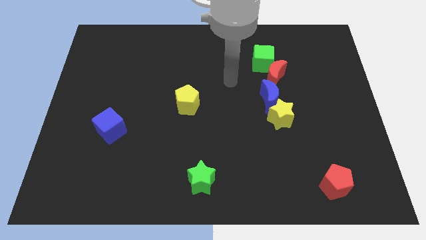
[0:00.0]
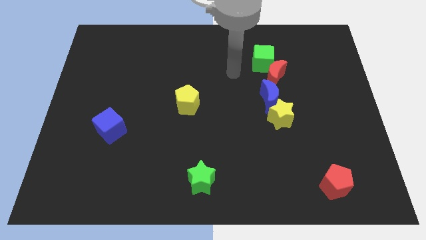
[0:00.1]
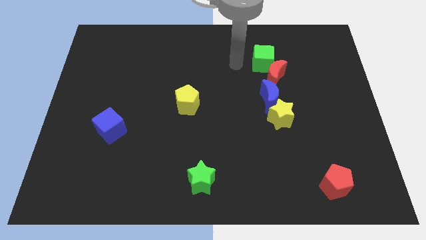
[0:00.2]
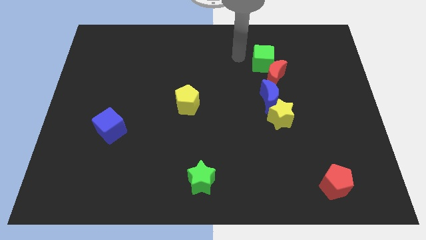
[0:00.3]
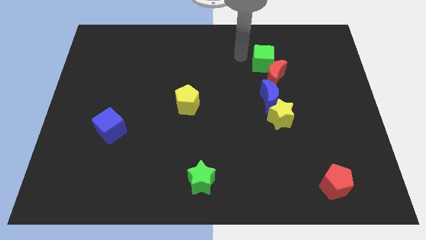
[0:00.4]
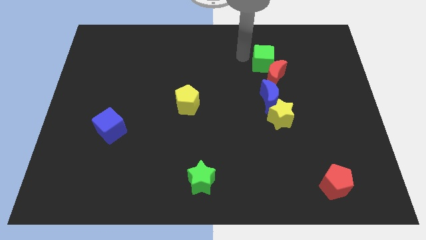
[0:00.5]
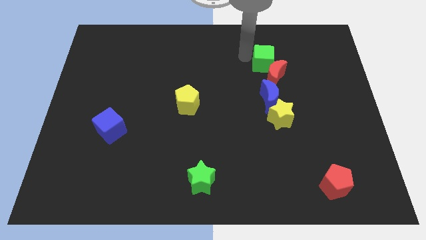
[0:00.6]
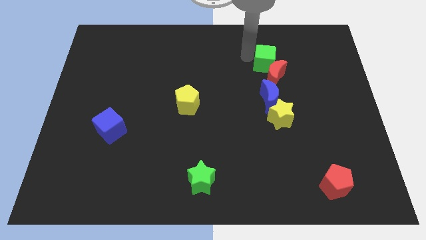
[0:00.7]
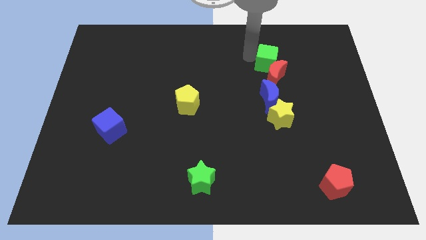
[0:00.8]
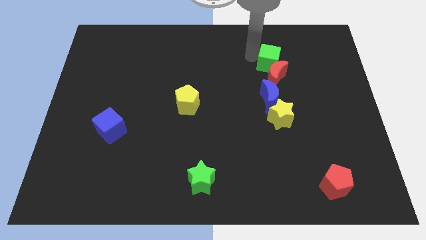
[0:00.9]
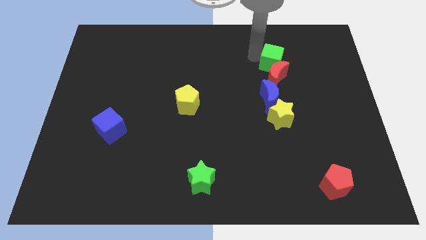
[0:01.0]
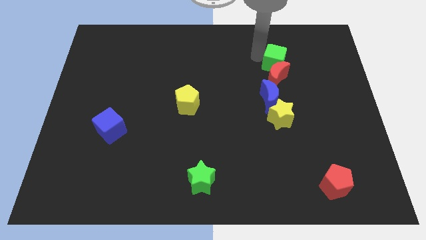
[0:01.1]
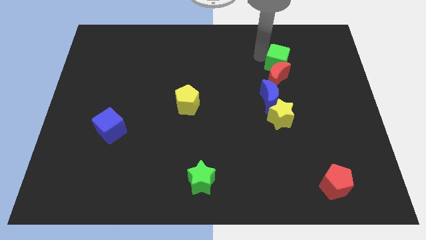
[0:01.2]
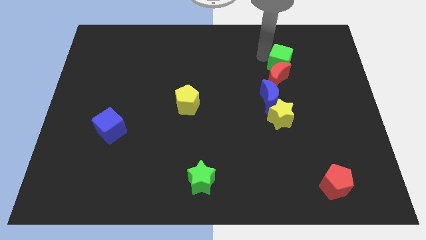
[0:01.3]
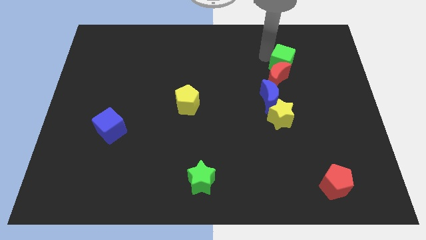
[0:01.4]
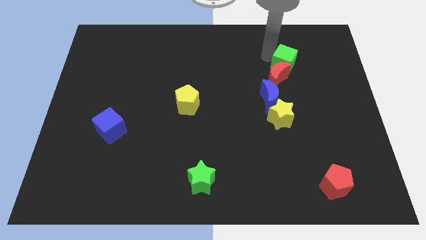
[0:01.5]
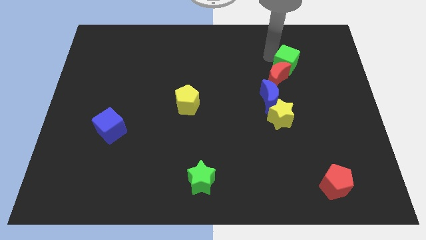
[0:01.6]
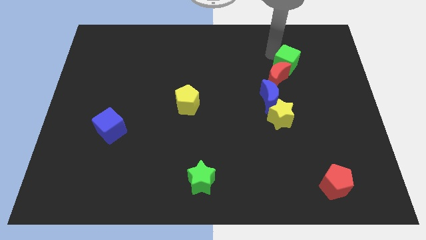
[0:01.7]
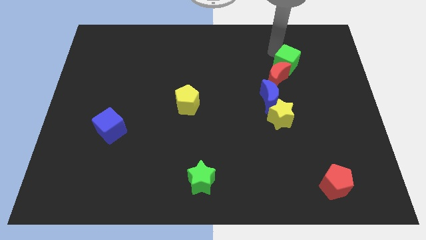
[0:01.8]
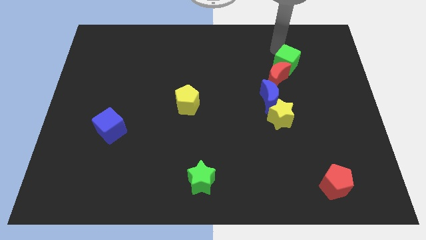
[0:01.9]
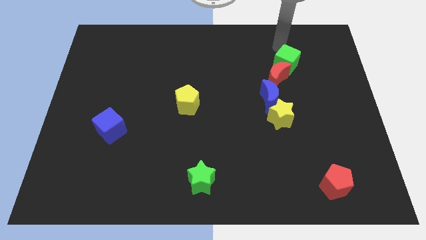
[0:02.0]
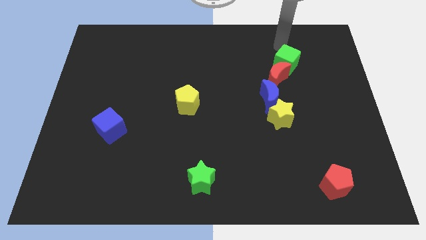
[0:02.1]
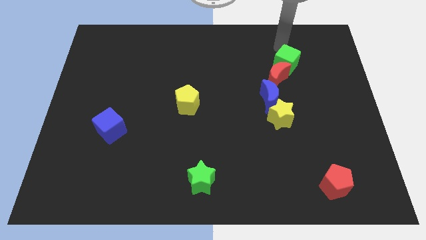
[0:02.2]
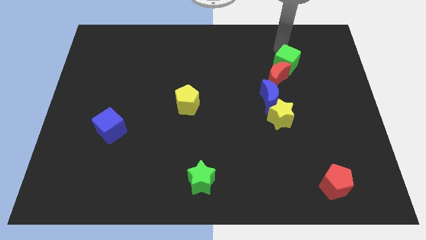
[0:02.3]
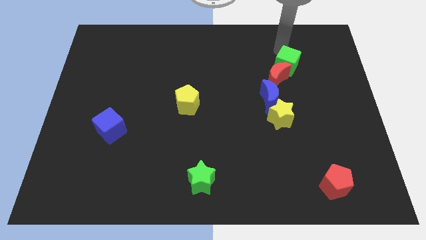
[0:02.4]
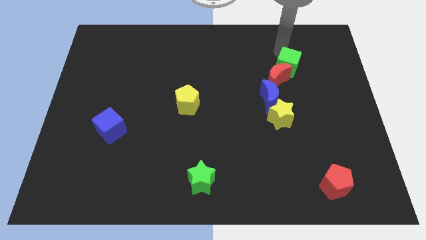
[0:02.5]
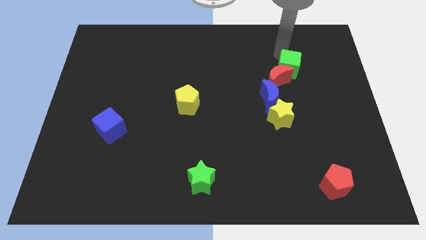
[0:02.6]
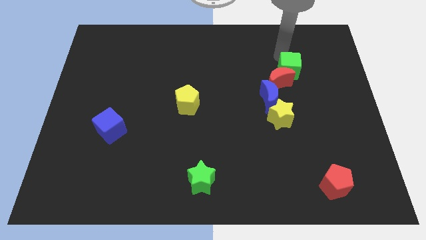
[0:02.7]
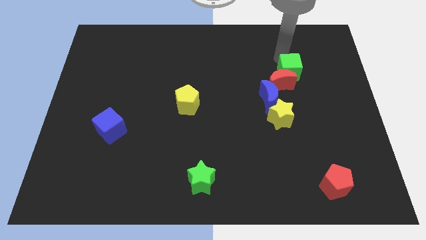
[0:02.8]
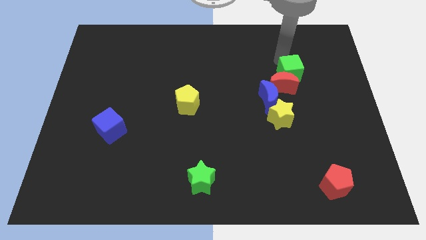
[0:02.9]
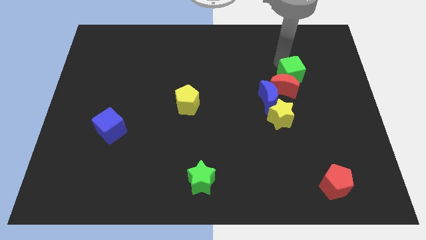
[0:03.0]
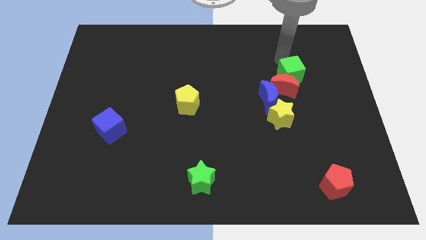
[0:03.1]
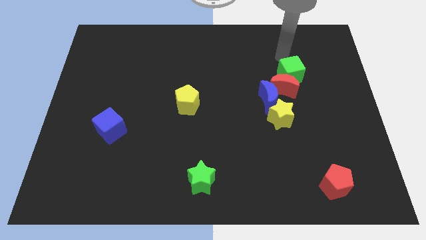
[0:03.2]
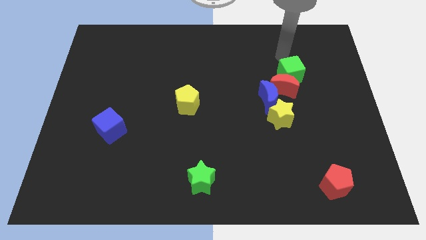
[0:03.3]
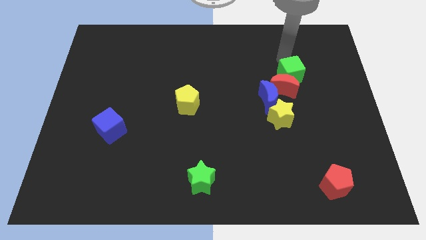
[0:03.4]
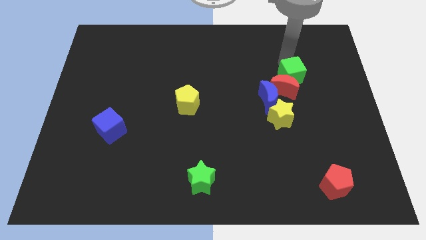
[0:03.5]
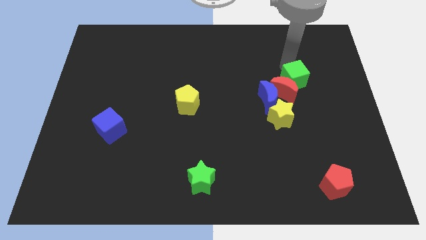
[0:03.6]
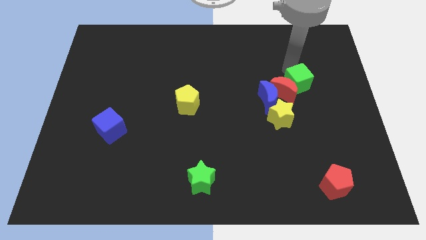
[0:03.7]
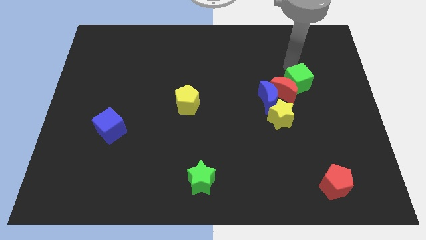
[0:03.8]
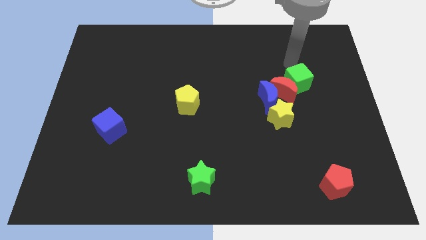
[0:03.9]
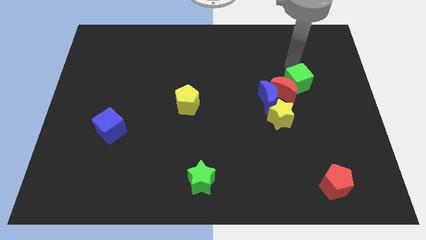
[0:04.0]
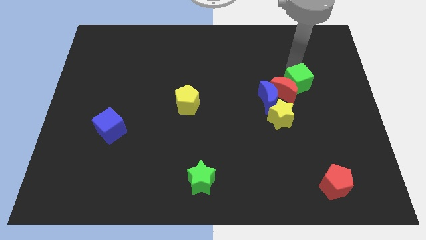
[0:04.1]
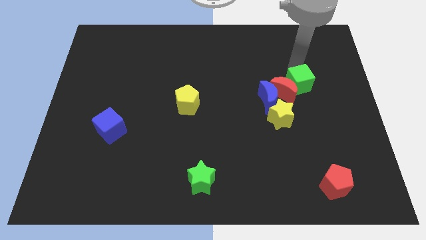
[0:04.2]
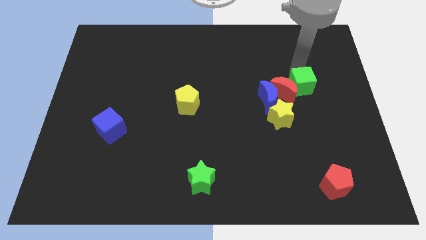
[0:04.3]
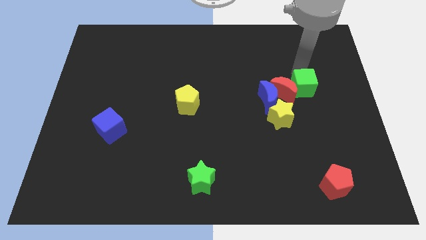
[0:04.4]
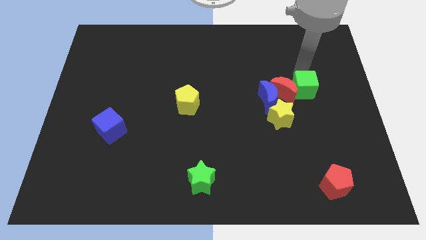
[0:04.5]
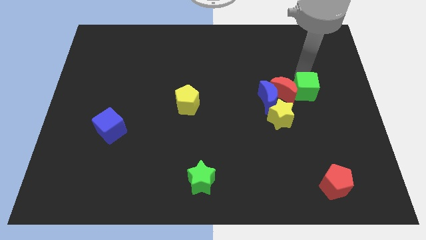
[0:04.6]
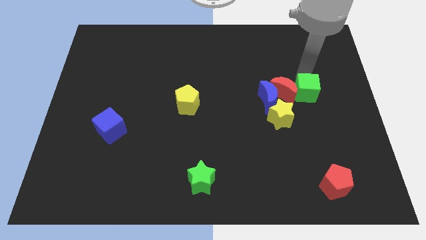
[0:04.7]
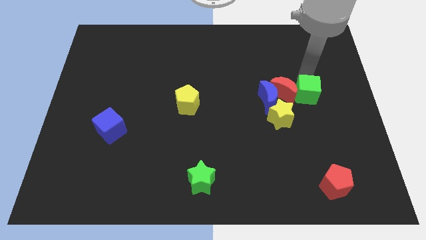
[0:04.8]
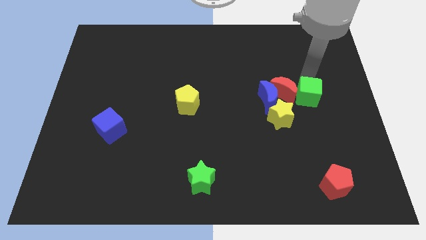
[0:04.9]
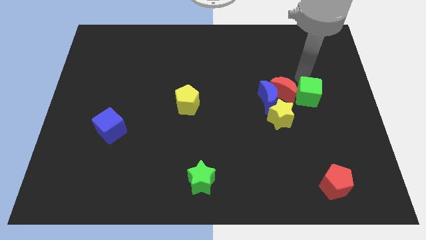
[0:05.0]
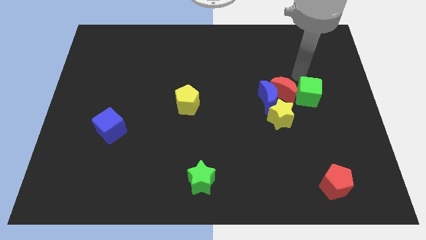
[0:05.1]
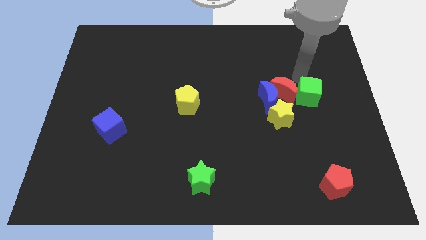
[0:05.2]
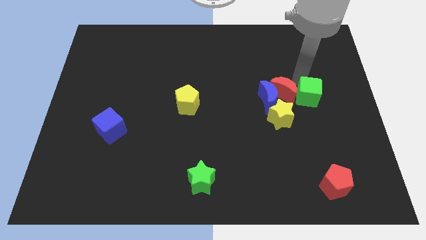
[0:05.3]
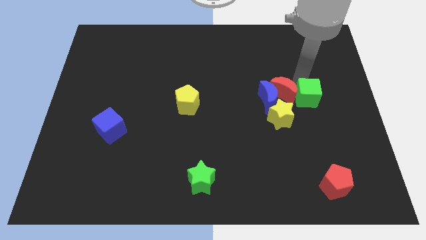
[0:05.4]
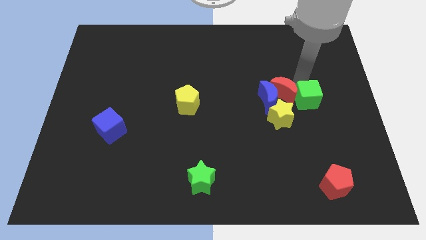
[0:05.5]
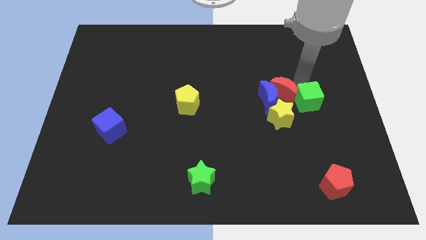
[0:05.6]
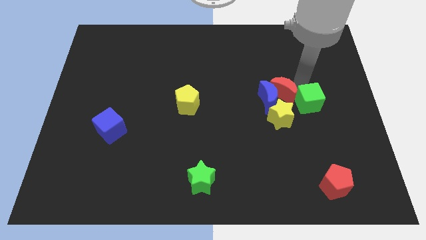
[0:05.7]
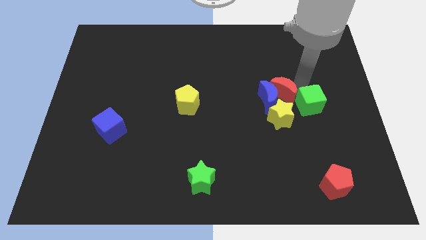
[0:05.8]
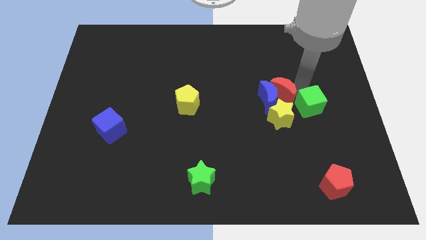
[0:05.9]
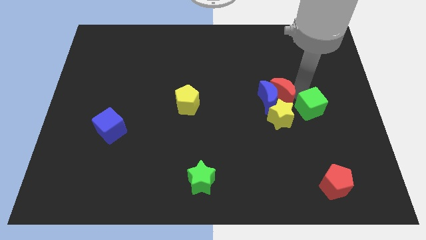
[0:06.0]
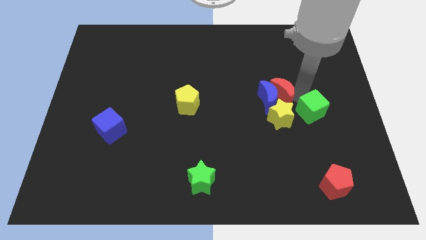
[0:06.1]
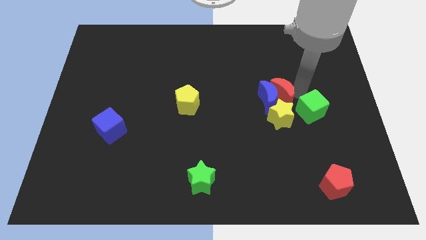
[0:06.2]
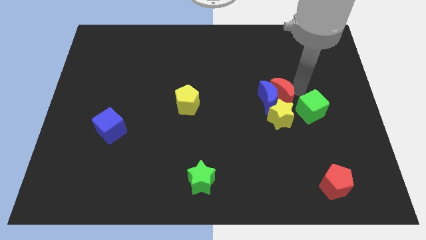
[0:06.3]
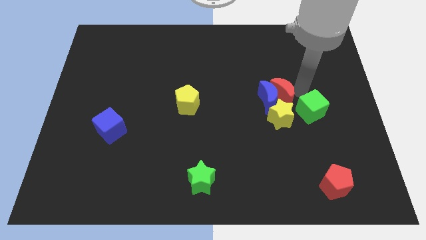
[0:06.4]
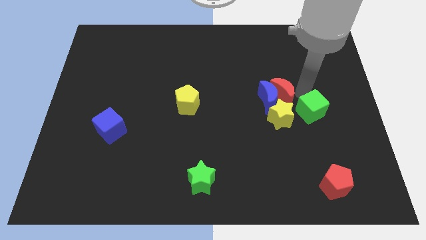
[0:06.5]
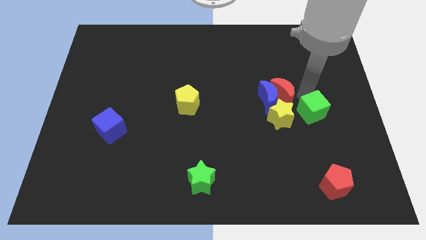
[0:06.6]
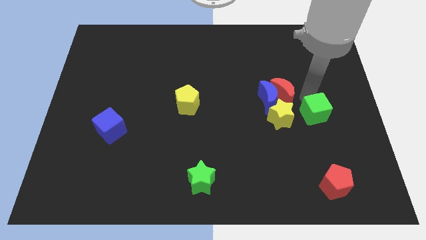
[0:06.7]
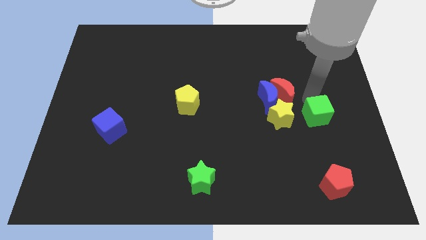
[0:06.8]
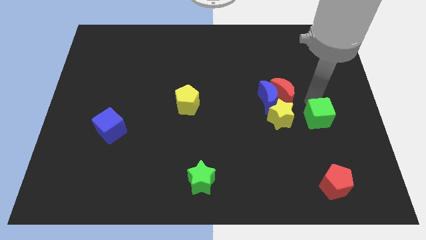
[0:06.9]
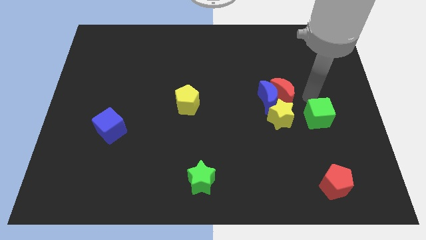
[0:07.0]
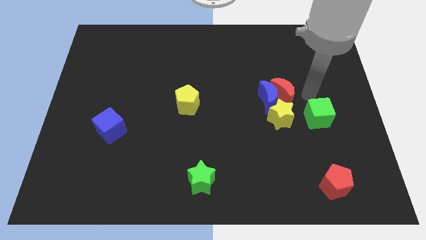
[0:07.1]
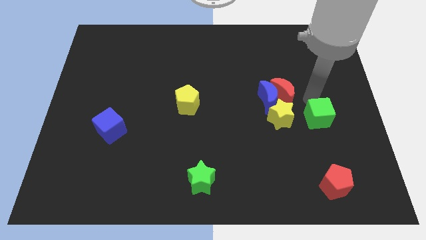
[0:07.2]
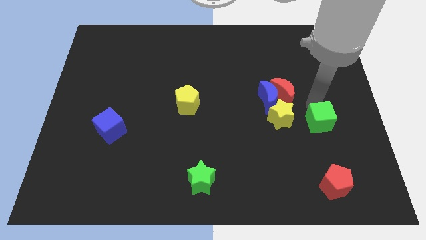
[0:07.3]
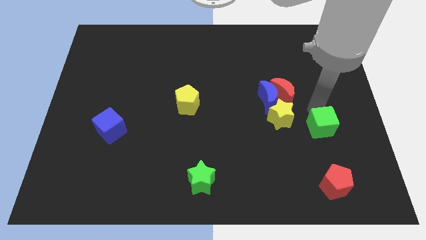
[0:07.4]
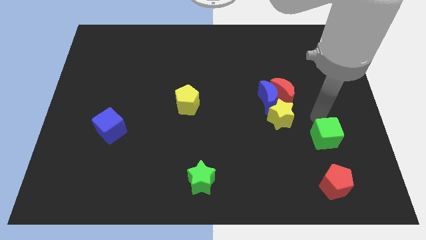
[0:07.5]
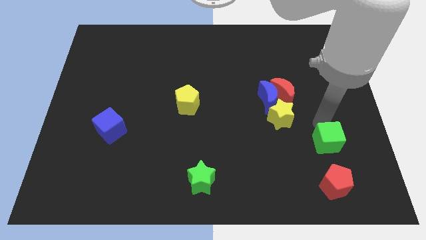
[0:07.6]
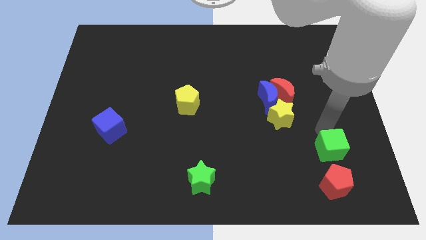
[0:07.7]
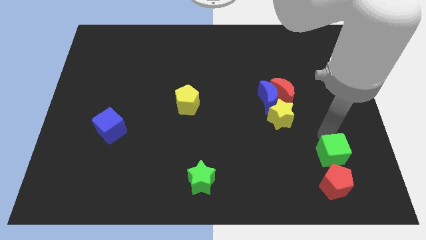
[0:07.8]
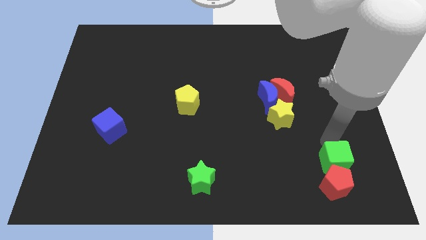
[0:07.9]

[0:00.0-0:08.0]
push the green cube close to the red pentagon
